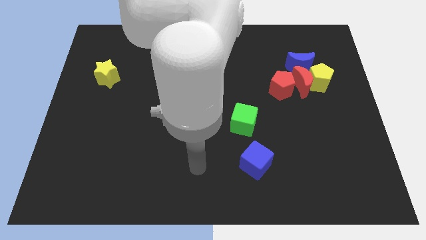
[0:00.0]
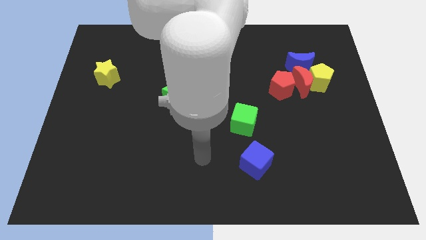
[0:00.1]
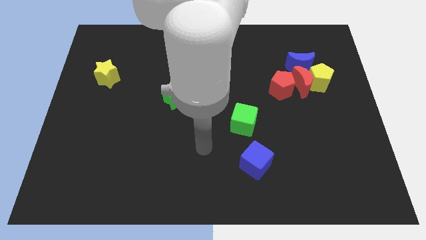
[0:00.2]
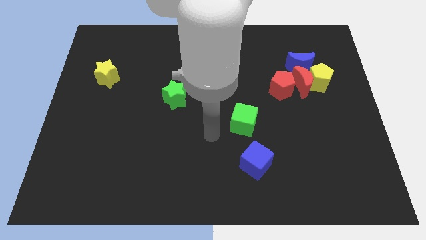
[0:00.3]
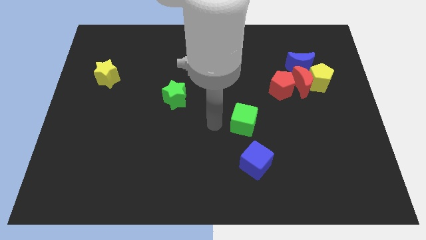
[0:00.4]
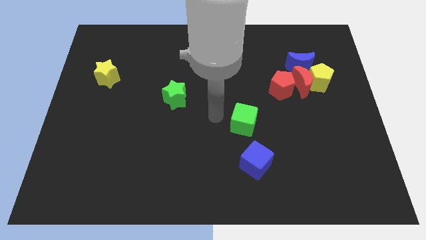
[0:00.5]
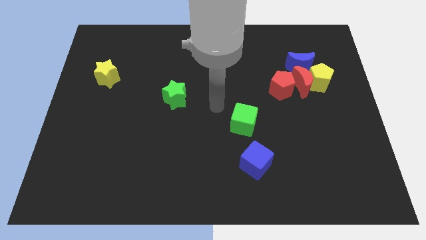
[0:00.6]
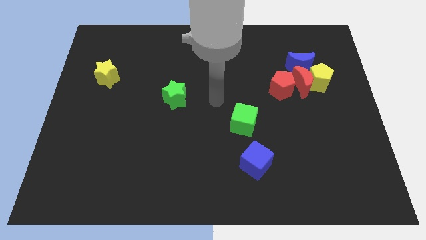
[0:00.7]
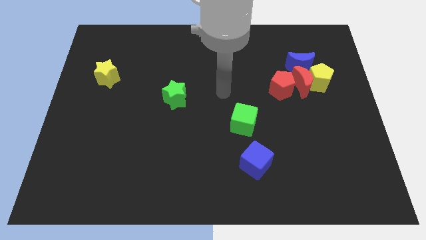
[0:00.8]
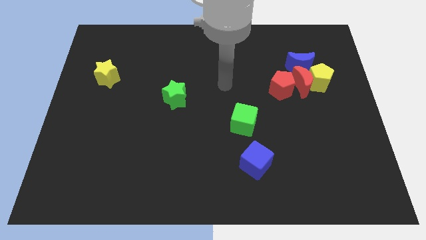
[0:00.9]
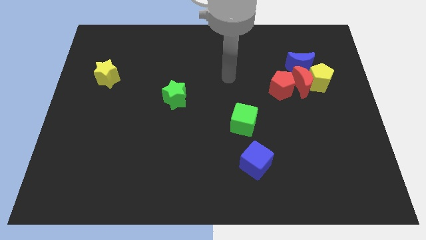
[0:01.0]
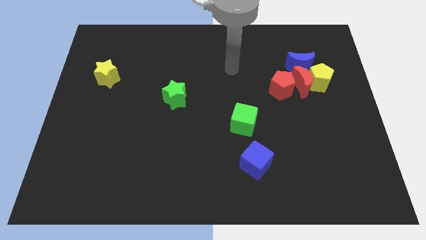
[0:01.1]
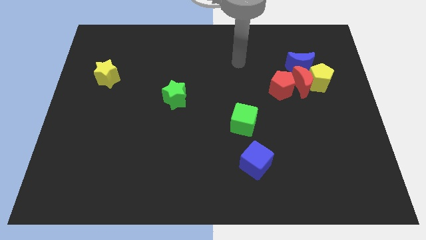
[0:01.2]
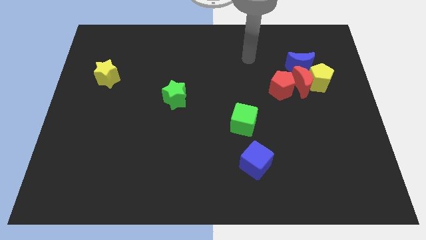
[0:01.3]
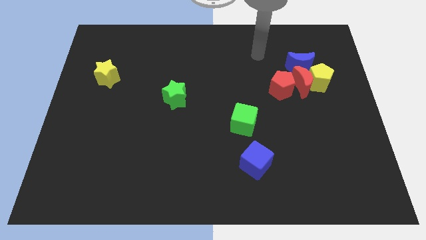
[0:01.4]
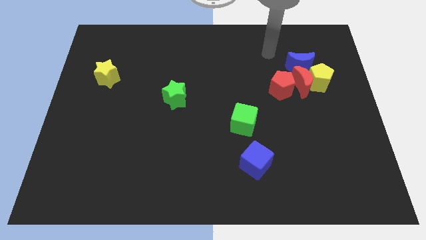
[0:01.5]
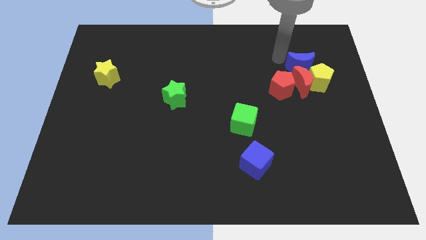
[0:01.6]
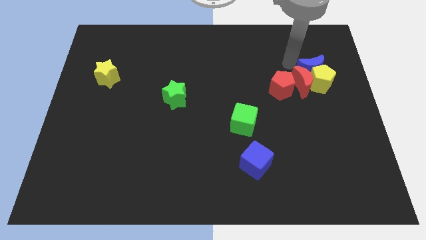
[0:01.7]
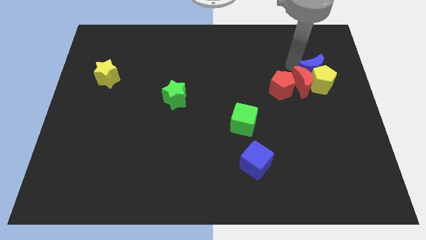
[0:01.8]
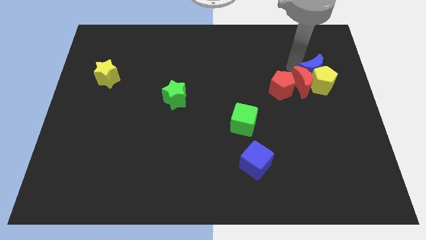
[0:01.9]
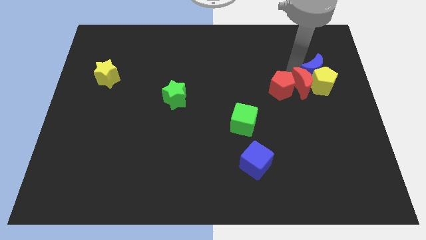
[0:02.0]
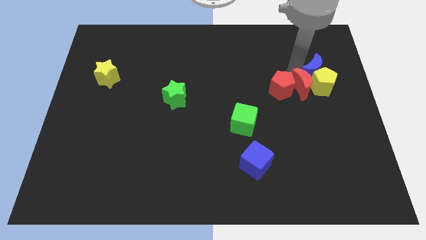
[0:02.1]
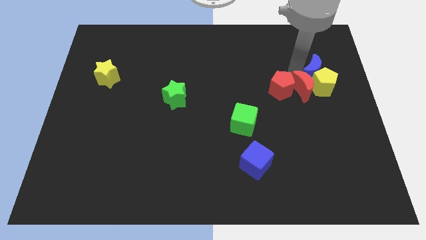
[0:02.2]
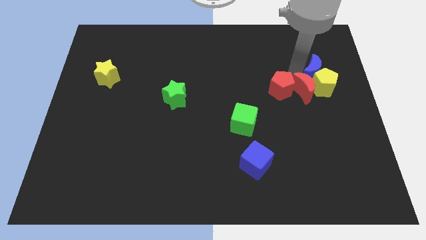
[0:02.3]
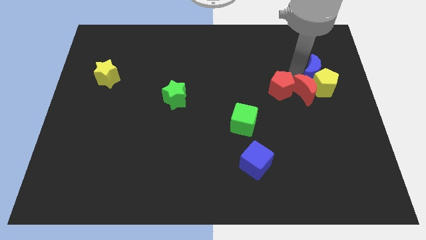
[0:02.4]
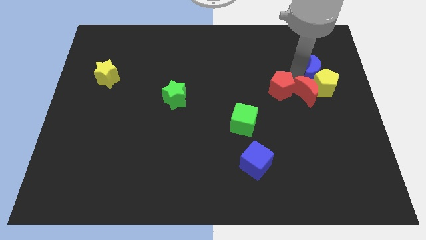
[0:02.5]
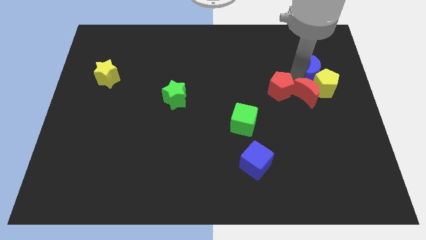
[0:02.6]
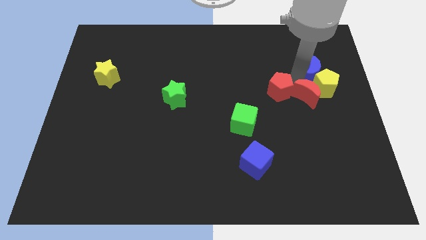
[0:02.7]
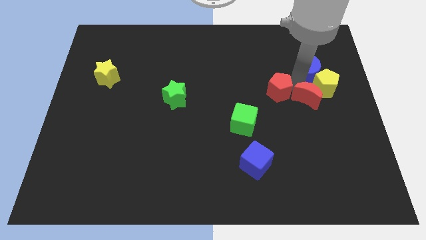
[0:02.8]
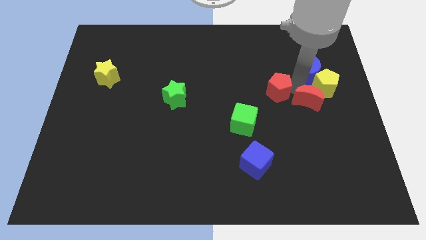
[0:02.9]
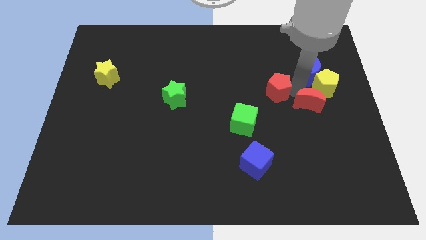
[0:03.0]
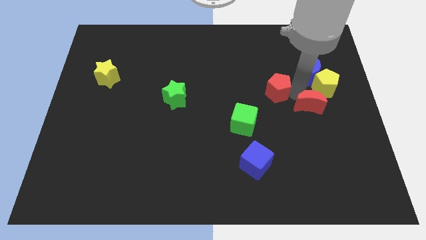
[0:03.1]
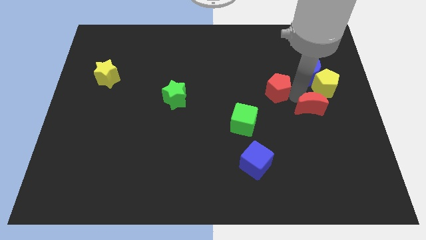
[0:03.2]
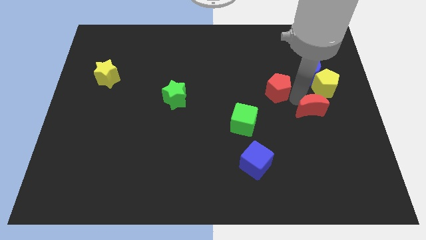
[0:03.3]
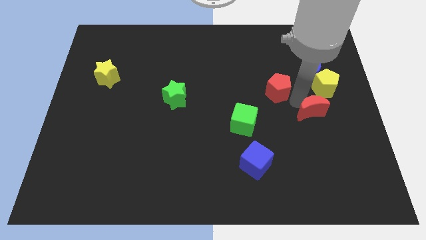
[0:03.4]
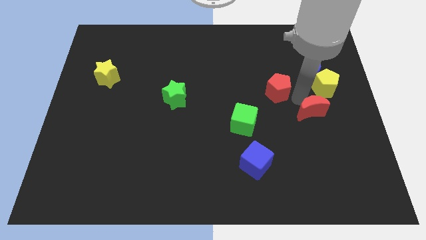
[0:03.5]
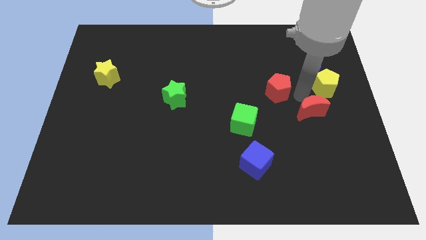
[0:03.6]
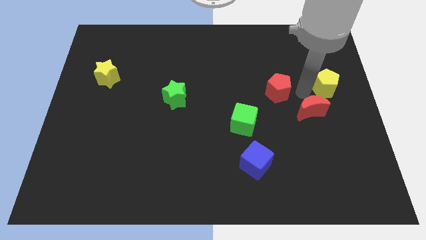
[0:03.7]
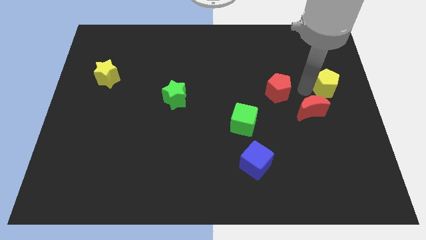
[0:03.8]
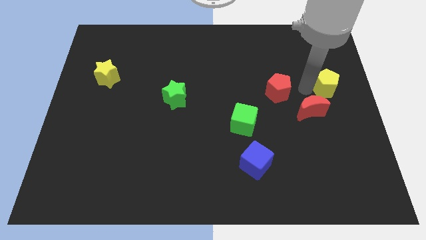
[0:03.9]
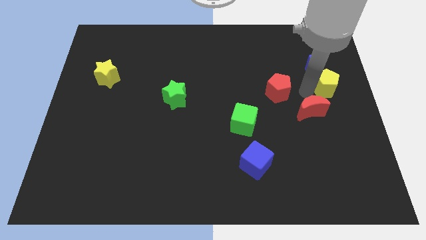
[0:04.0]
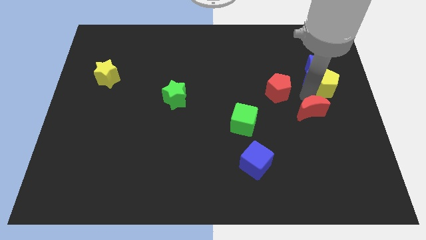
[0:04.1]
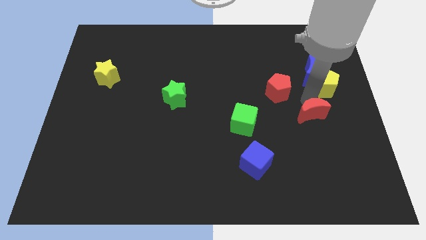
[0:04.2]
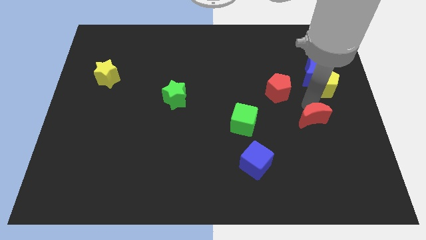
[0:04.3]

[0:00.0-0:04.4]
pull the red moon apart from the group of blocks

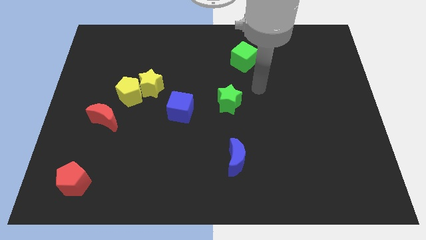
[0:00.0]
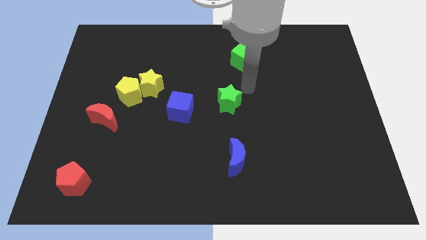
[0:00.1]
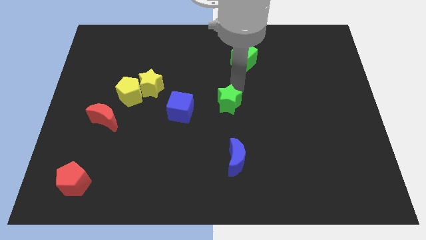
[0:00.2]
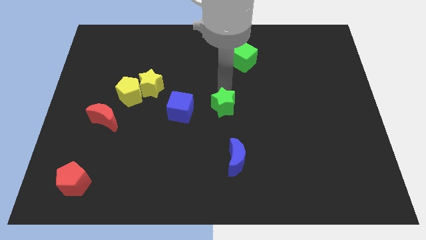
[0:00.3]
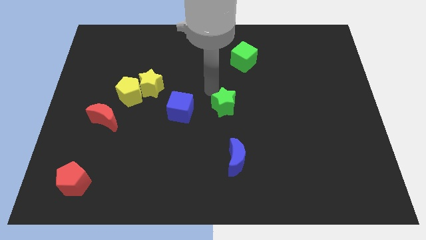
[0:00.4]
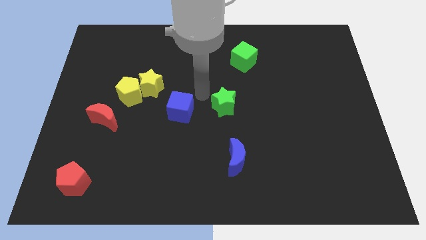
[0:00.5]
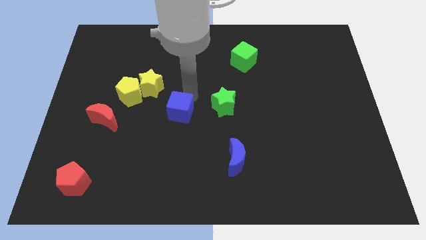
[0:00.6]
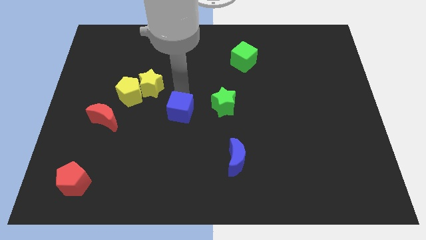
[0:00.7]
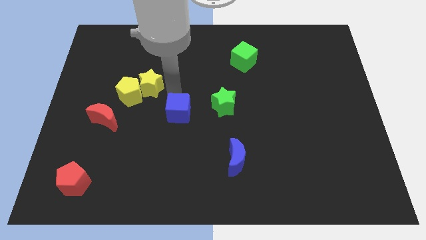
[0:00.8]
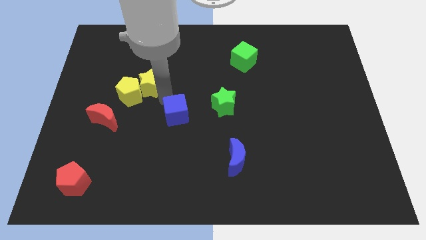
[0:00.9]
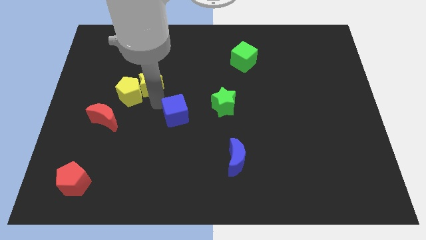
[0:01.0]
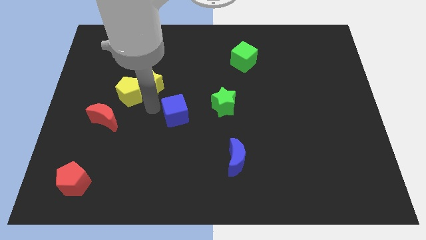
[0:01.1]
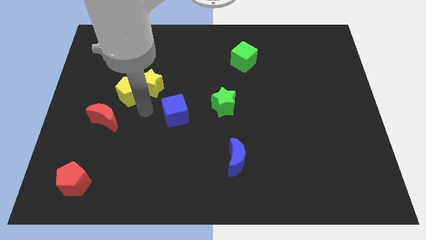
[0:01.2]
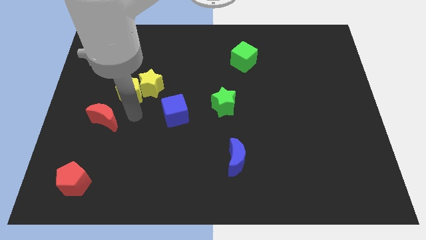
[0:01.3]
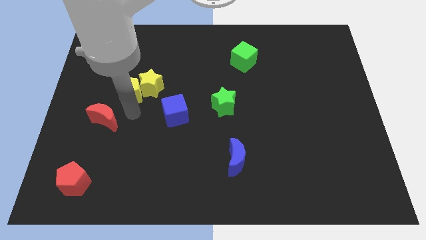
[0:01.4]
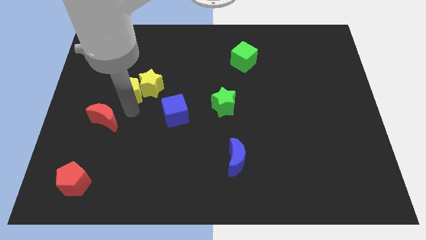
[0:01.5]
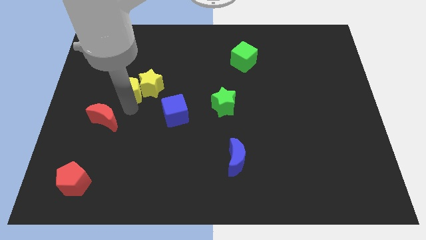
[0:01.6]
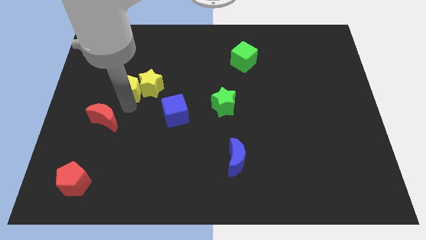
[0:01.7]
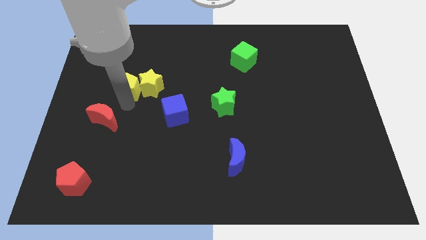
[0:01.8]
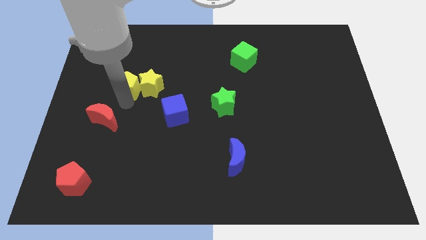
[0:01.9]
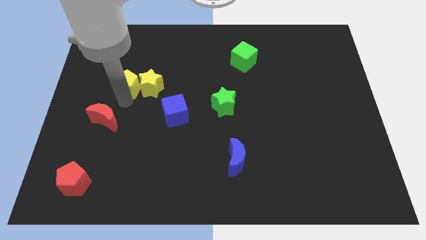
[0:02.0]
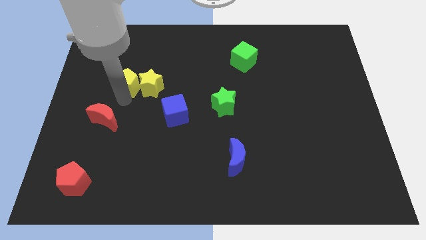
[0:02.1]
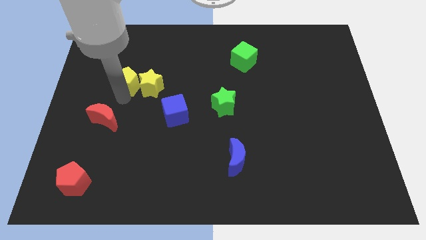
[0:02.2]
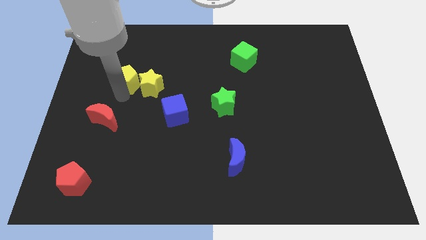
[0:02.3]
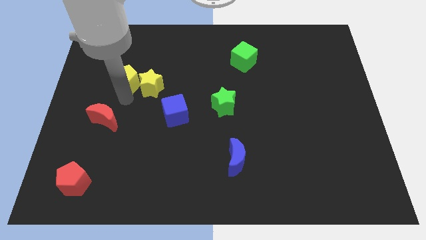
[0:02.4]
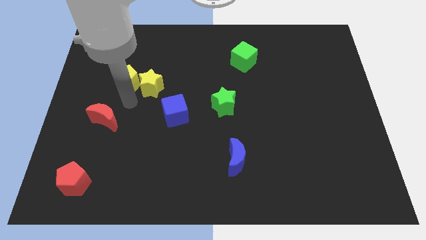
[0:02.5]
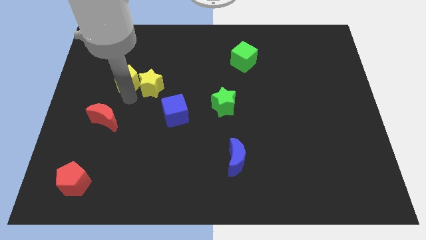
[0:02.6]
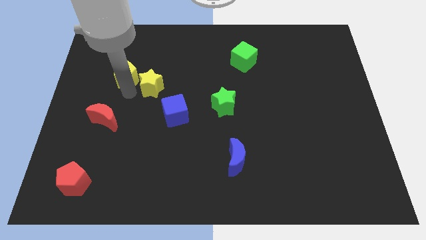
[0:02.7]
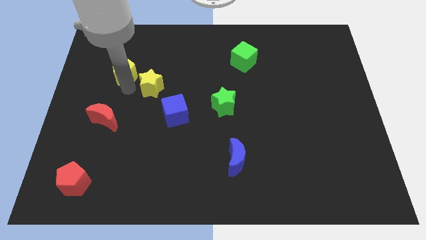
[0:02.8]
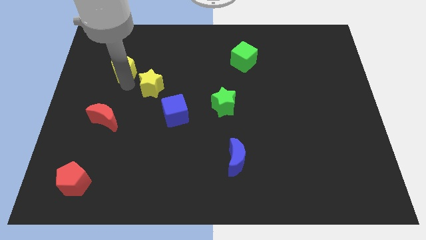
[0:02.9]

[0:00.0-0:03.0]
separate the yellow pentagon from the yellow star and red moon

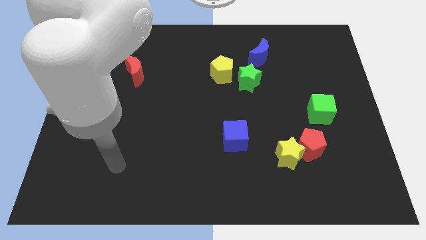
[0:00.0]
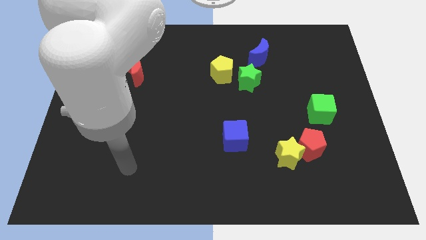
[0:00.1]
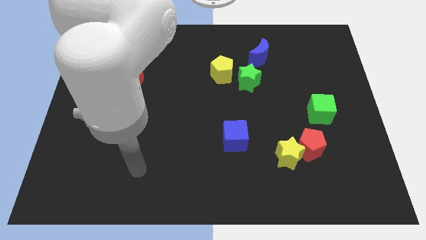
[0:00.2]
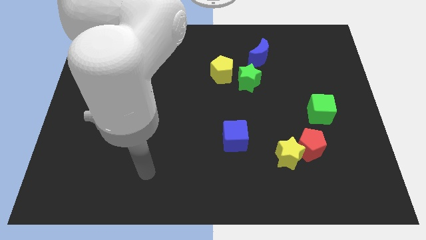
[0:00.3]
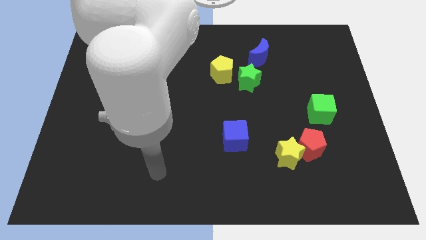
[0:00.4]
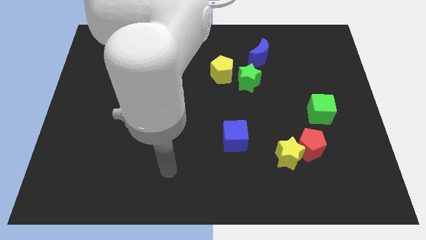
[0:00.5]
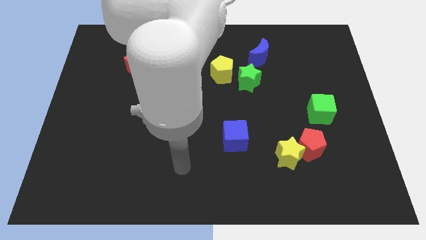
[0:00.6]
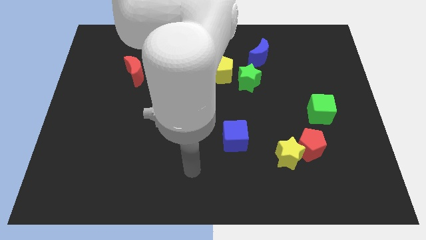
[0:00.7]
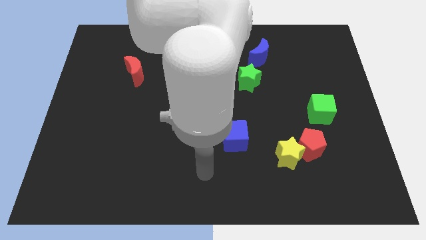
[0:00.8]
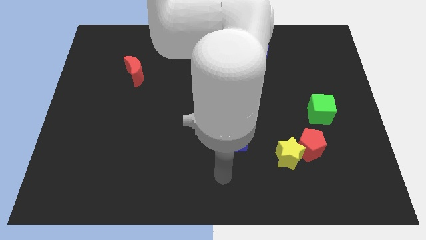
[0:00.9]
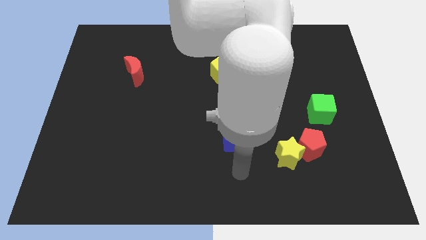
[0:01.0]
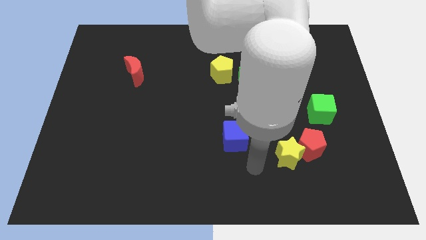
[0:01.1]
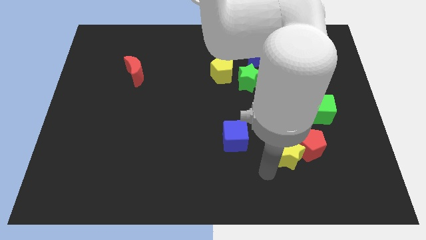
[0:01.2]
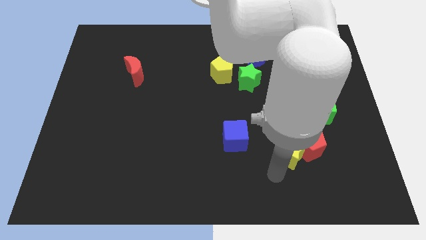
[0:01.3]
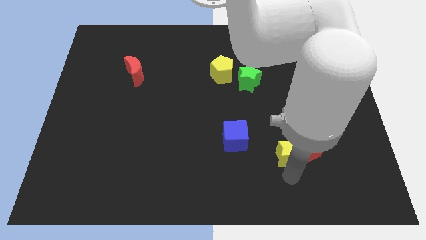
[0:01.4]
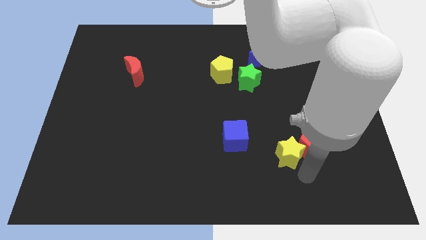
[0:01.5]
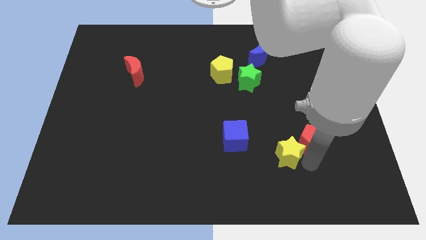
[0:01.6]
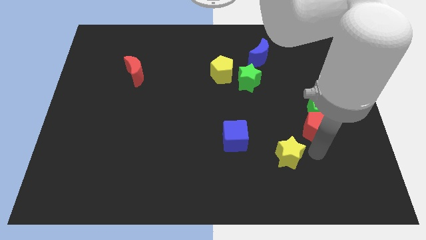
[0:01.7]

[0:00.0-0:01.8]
separate the yellow star from the red pentagon

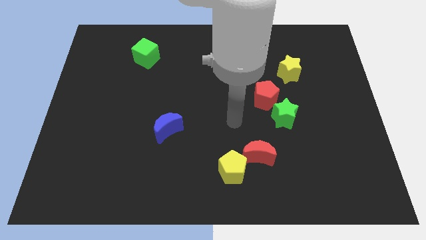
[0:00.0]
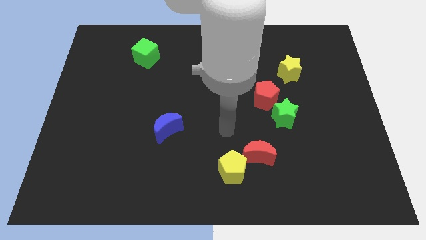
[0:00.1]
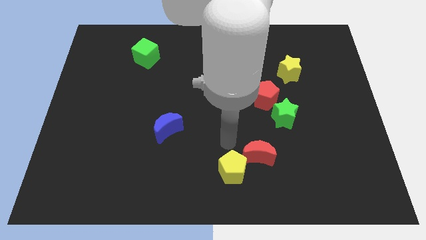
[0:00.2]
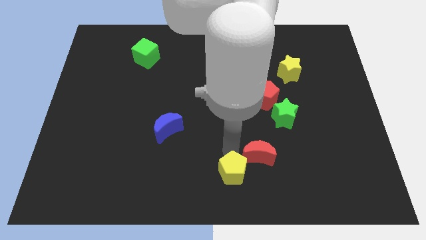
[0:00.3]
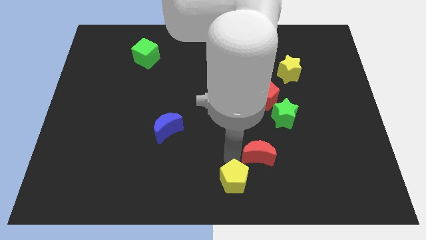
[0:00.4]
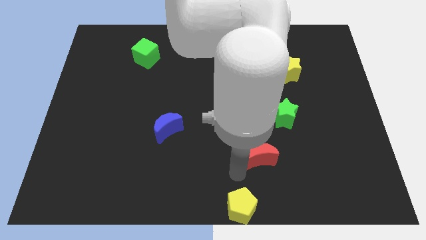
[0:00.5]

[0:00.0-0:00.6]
move the red moon away from the yellow pentagon
